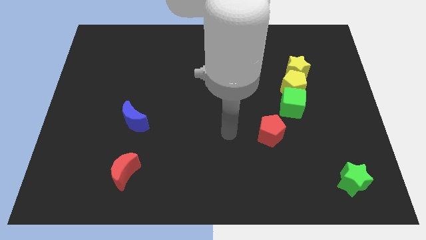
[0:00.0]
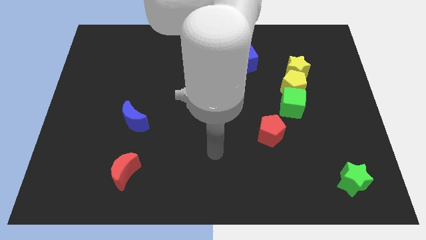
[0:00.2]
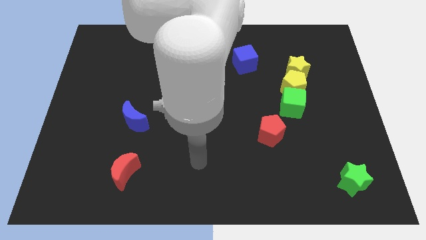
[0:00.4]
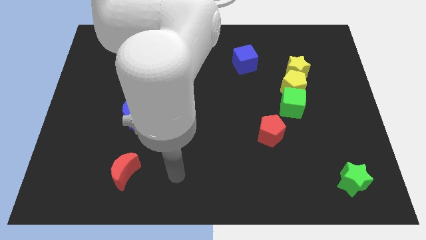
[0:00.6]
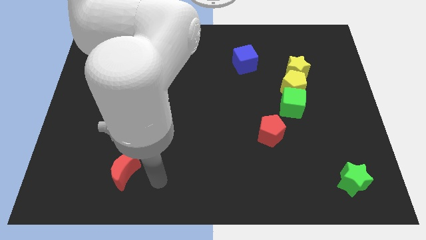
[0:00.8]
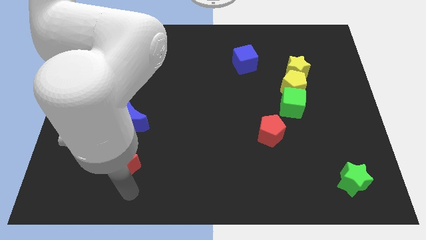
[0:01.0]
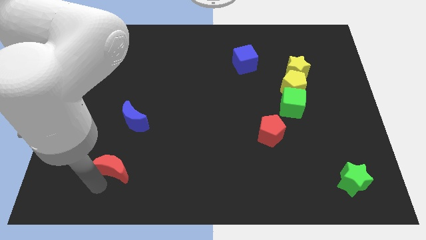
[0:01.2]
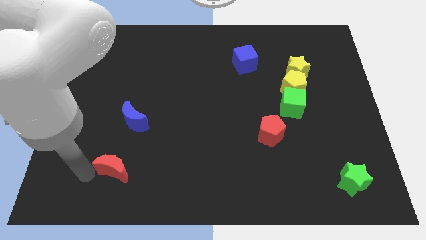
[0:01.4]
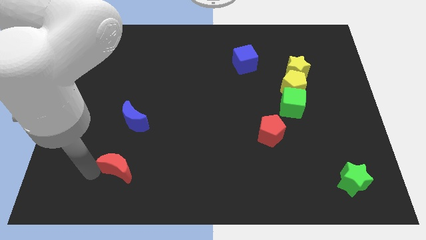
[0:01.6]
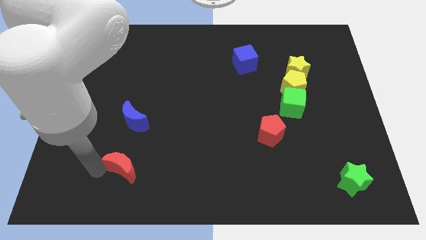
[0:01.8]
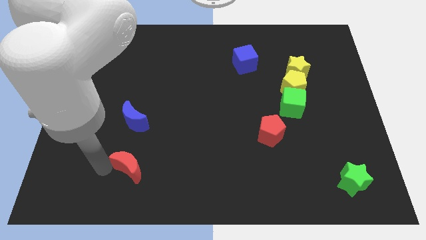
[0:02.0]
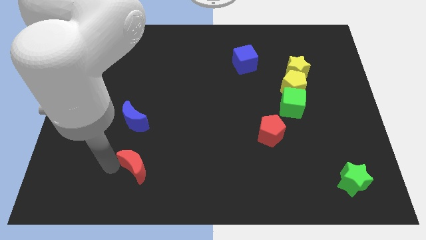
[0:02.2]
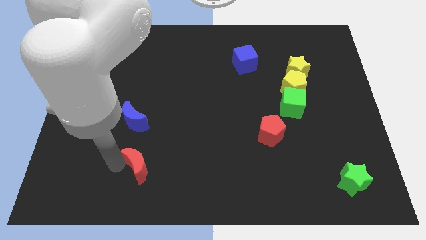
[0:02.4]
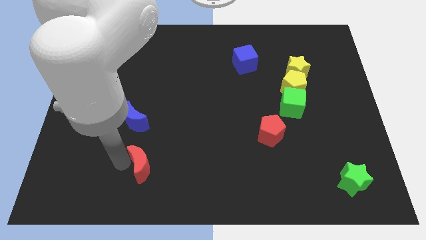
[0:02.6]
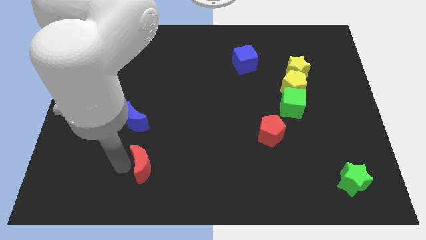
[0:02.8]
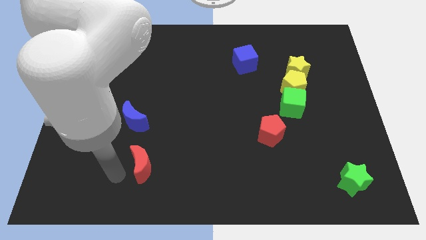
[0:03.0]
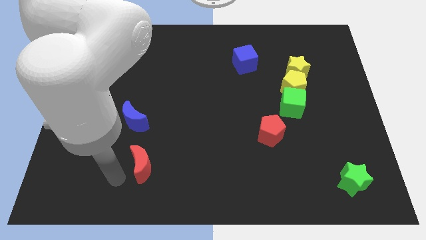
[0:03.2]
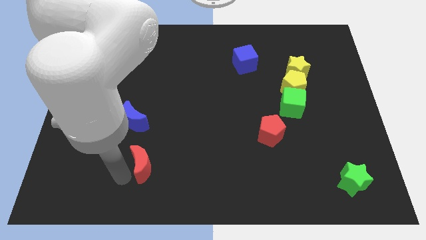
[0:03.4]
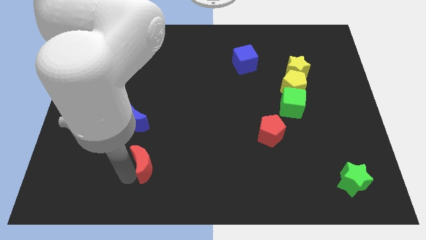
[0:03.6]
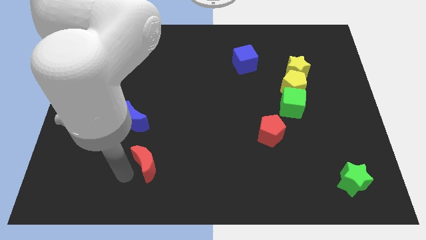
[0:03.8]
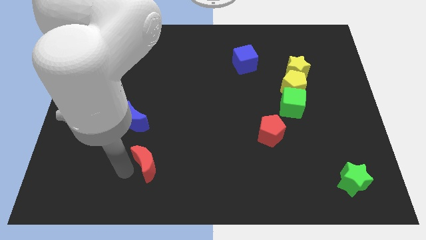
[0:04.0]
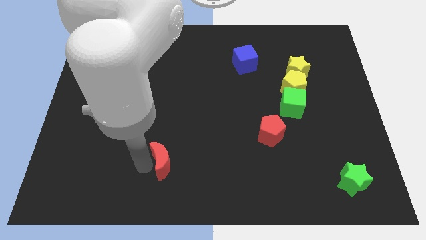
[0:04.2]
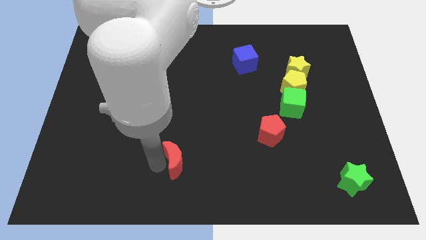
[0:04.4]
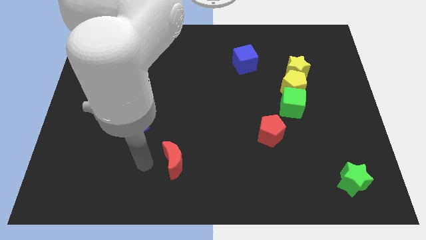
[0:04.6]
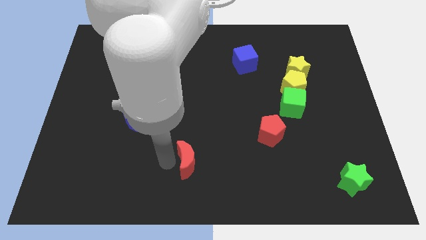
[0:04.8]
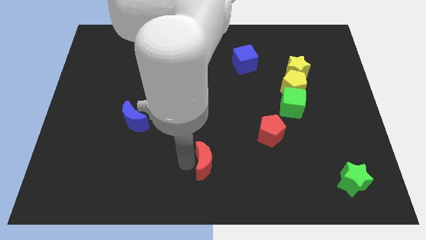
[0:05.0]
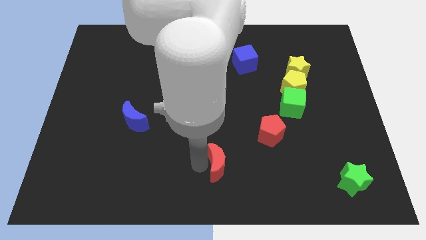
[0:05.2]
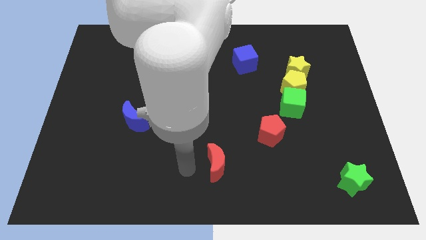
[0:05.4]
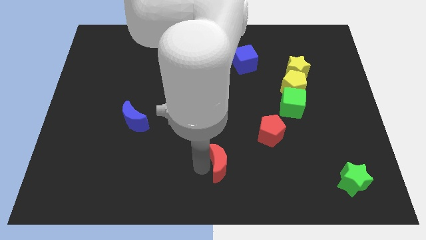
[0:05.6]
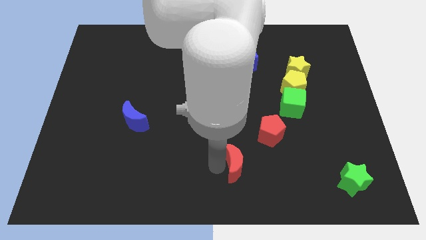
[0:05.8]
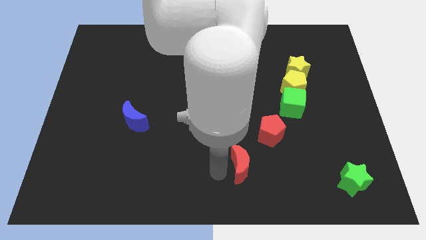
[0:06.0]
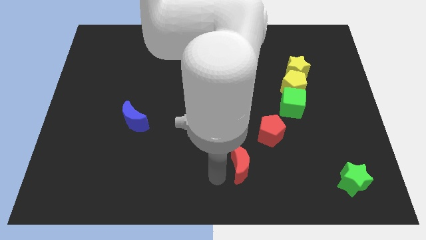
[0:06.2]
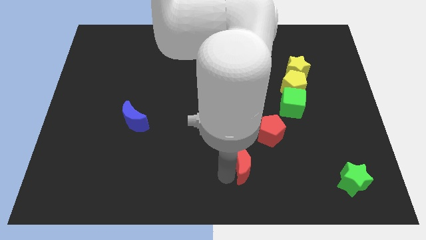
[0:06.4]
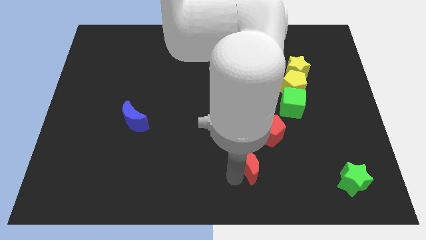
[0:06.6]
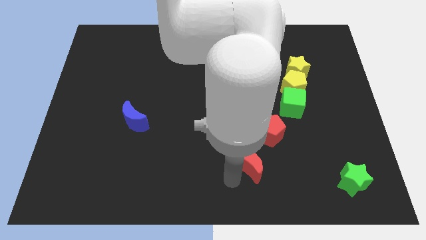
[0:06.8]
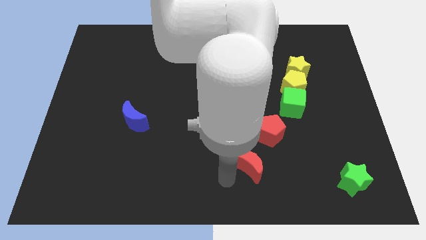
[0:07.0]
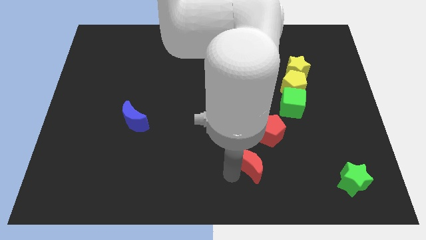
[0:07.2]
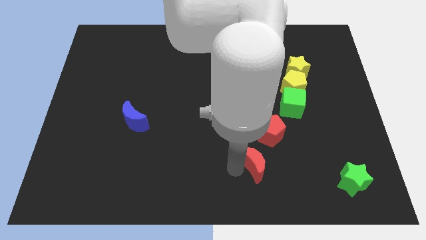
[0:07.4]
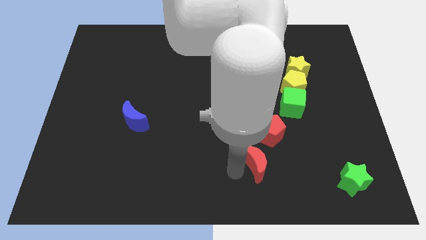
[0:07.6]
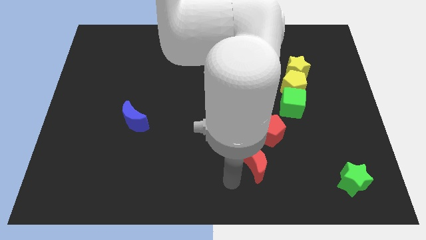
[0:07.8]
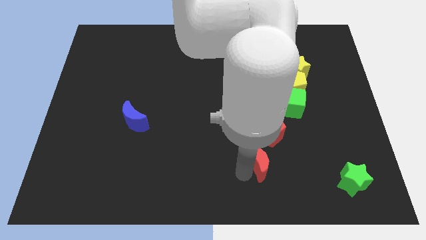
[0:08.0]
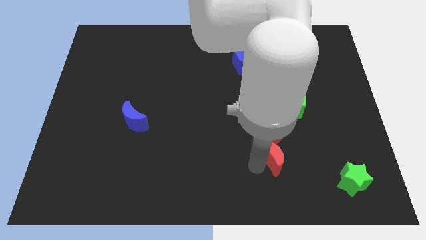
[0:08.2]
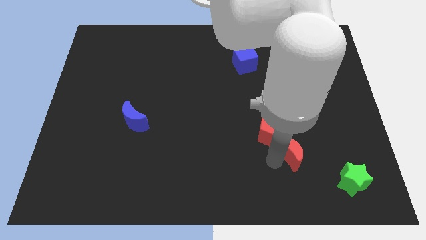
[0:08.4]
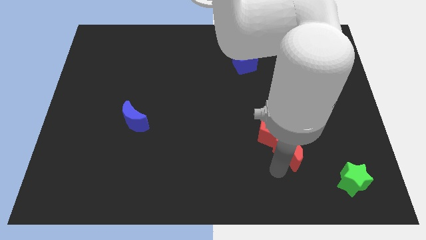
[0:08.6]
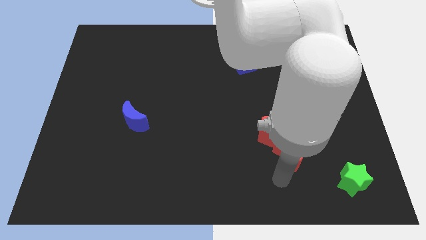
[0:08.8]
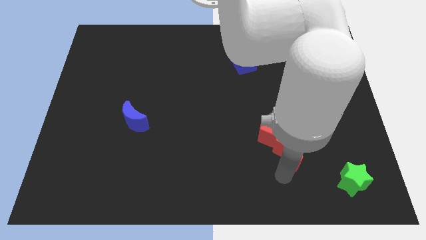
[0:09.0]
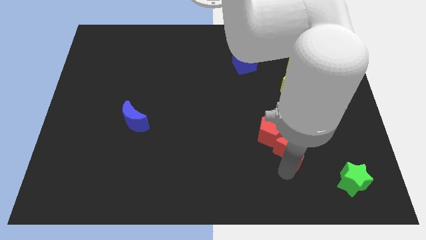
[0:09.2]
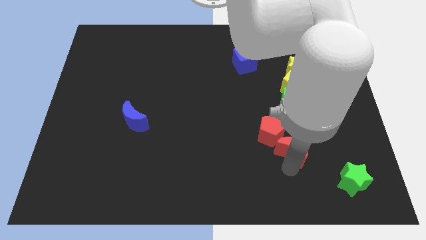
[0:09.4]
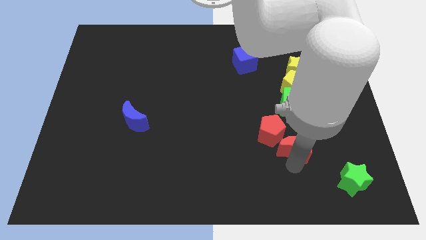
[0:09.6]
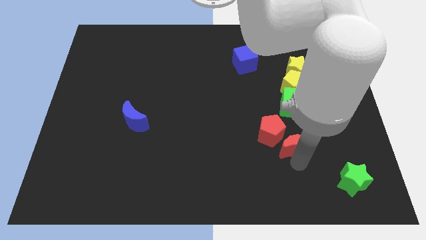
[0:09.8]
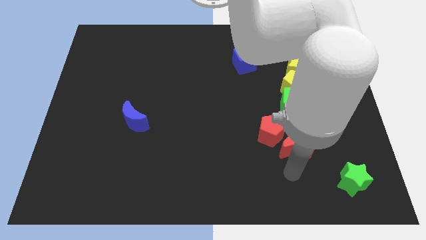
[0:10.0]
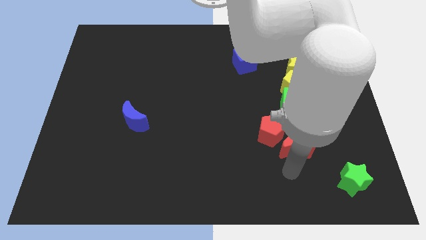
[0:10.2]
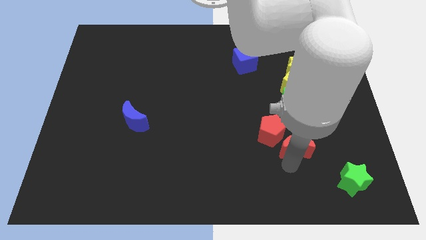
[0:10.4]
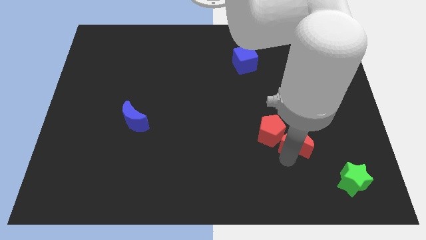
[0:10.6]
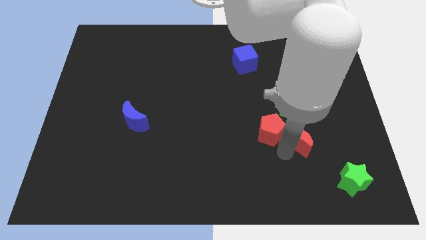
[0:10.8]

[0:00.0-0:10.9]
move the red moon to the bottom of the yellow pentagon

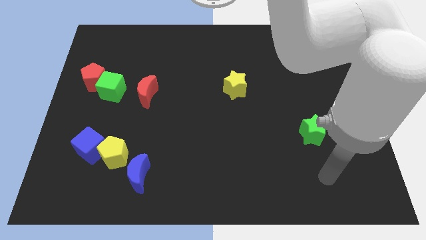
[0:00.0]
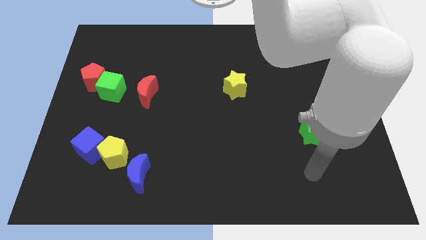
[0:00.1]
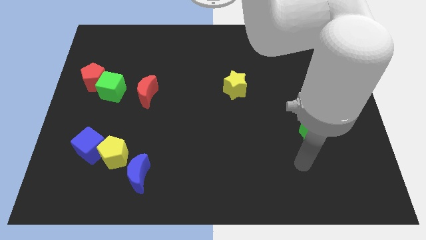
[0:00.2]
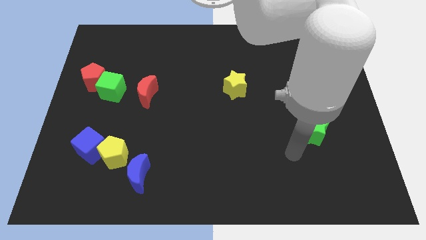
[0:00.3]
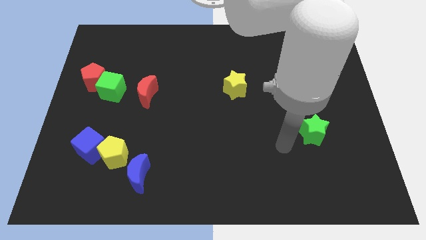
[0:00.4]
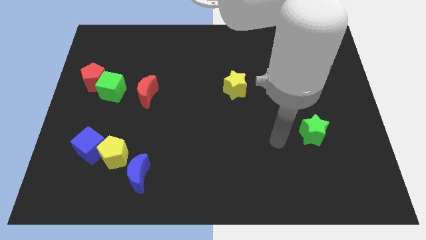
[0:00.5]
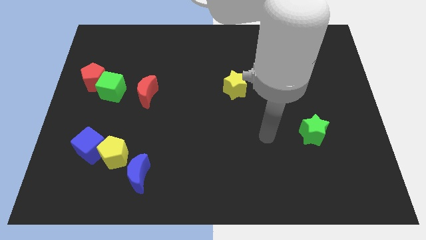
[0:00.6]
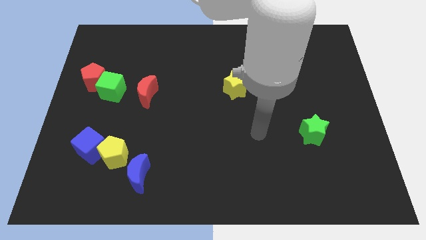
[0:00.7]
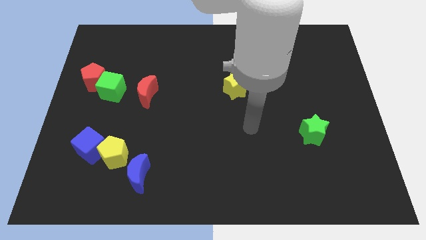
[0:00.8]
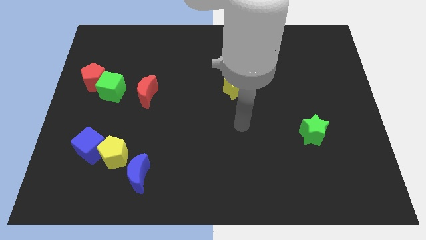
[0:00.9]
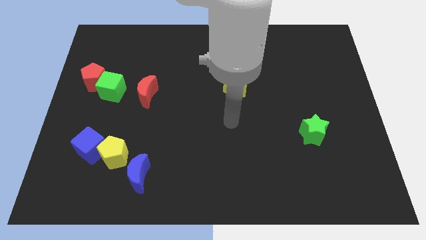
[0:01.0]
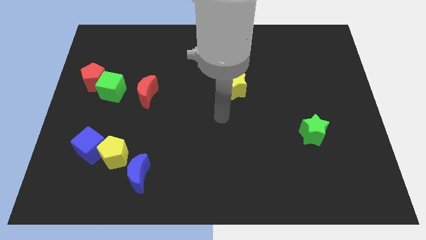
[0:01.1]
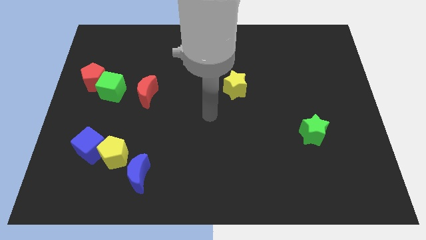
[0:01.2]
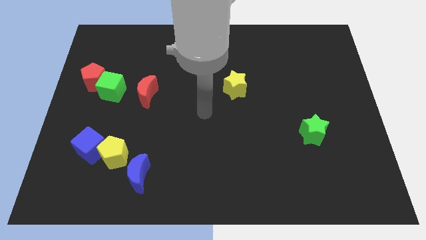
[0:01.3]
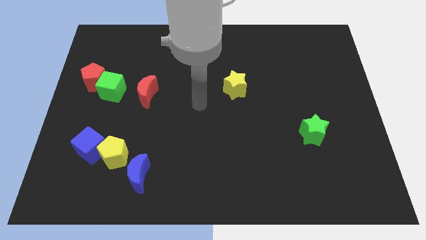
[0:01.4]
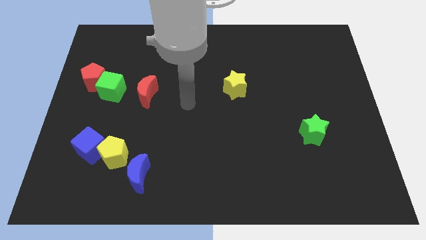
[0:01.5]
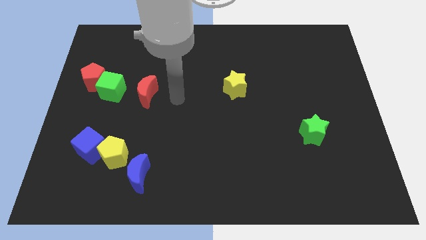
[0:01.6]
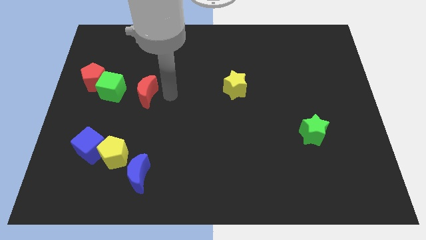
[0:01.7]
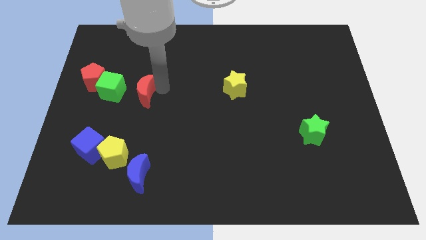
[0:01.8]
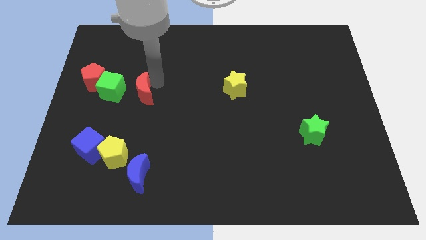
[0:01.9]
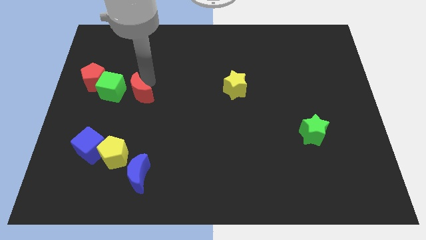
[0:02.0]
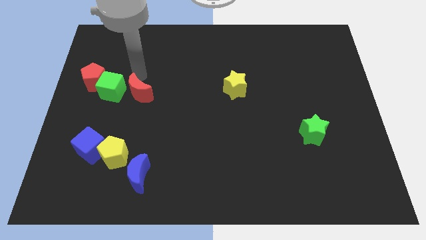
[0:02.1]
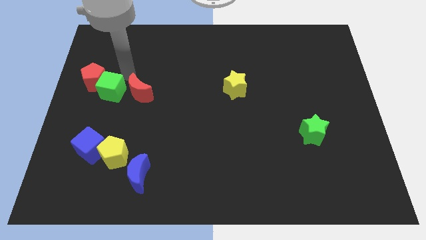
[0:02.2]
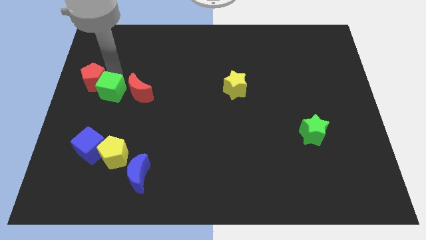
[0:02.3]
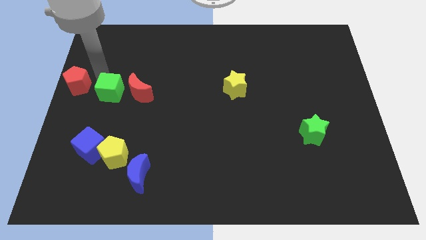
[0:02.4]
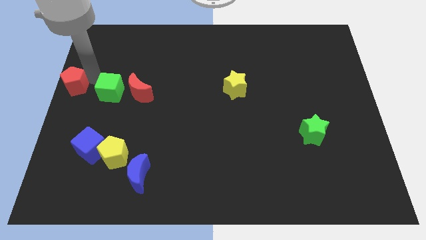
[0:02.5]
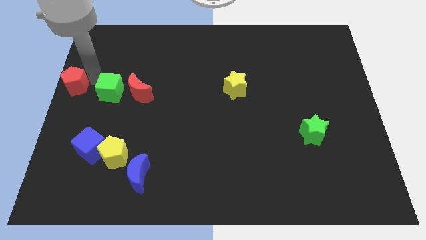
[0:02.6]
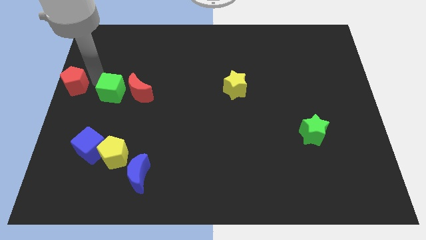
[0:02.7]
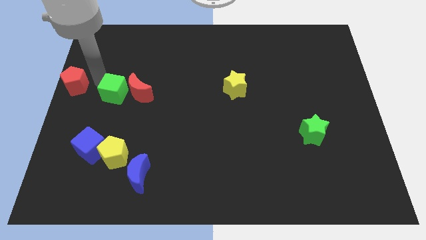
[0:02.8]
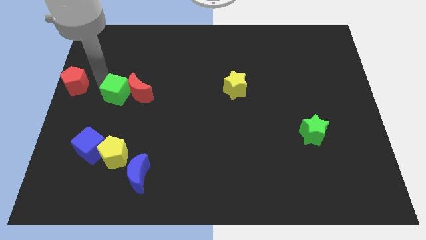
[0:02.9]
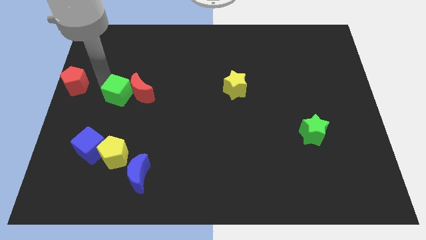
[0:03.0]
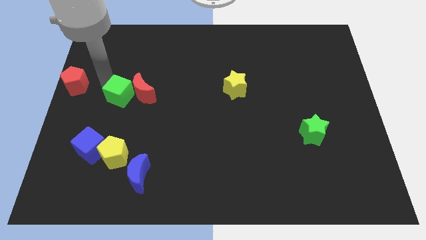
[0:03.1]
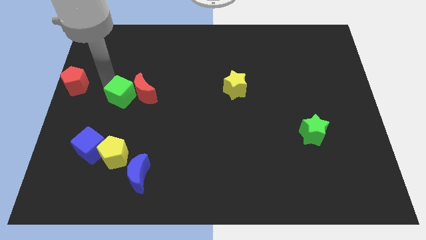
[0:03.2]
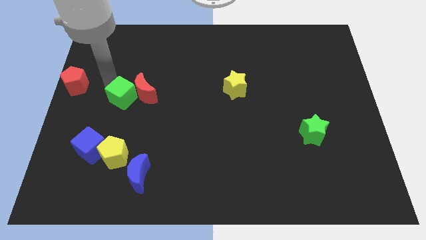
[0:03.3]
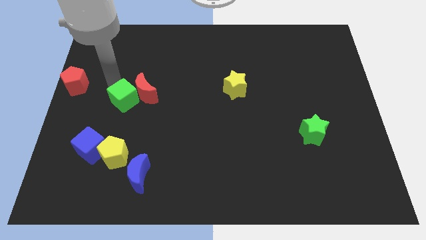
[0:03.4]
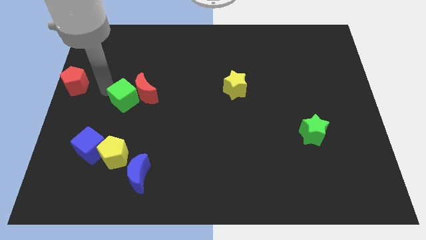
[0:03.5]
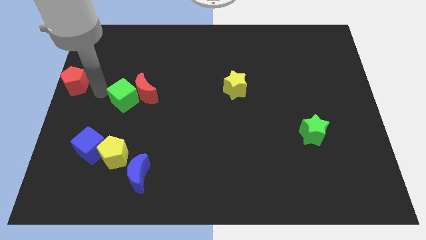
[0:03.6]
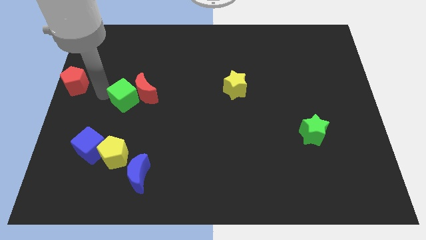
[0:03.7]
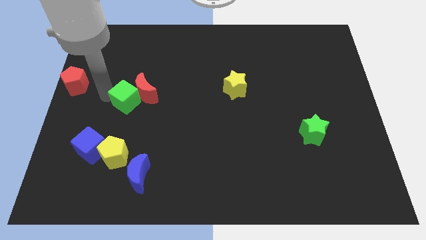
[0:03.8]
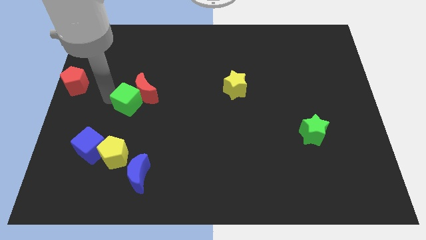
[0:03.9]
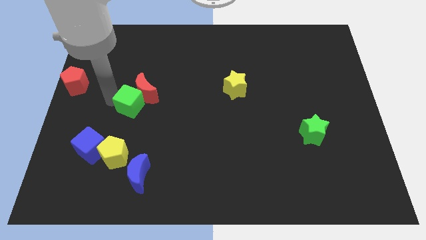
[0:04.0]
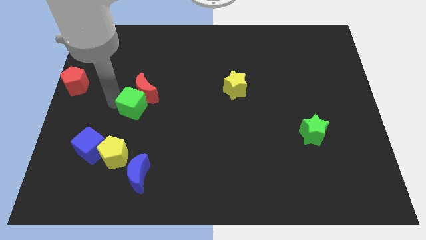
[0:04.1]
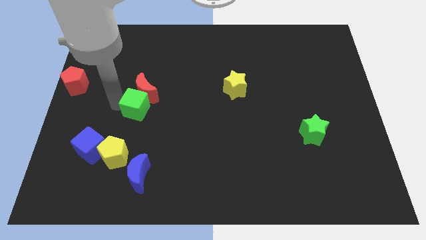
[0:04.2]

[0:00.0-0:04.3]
slide the green cube diagonally down and to the right of the red moon
